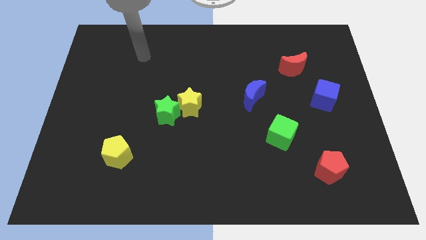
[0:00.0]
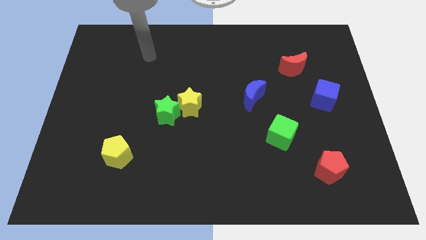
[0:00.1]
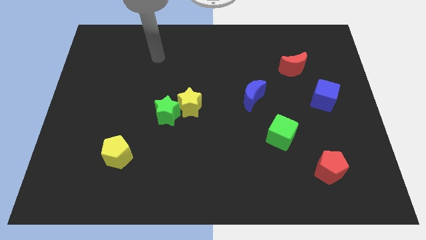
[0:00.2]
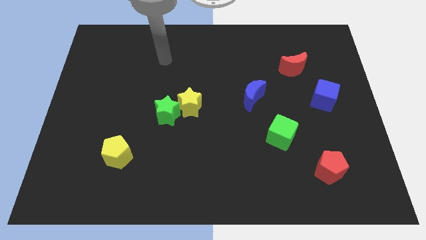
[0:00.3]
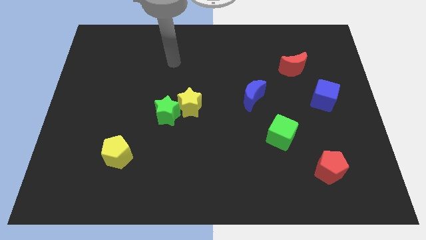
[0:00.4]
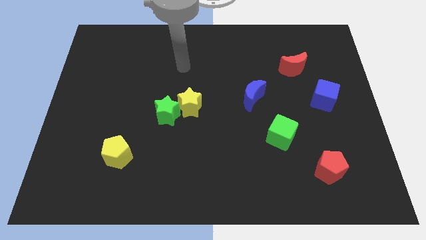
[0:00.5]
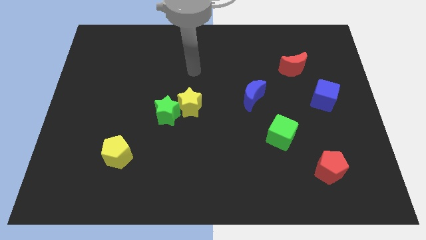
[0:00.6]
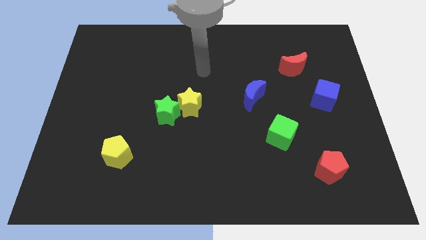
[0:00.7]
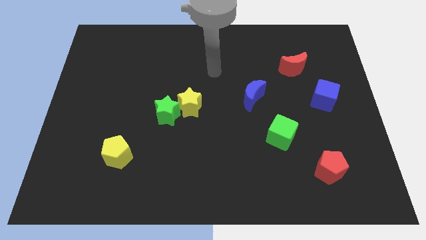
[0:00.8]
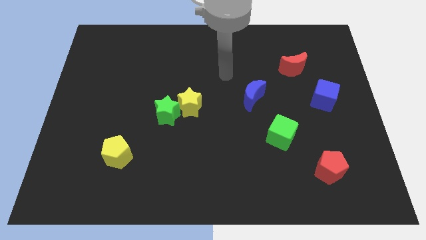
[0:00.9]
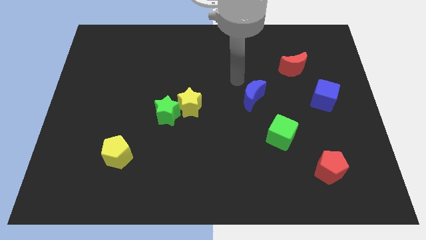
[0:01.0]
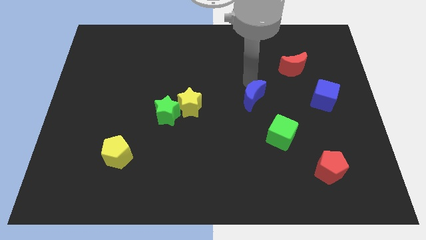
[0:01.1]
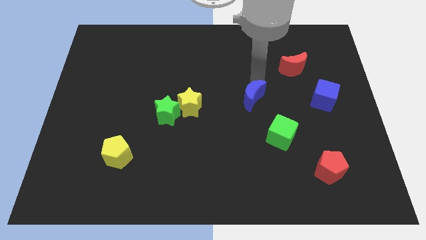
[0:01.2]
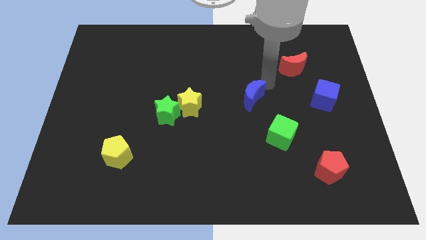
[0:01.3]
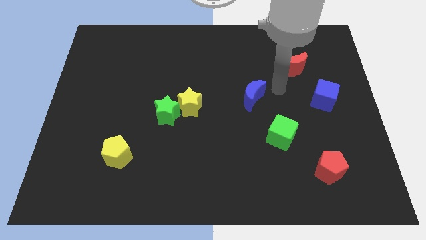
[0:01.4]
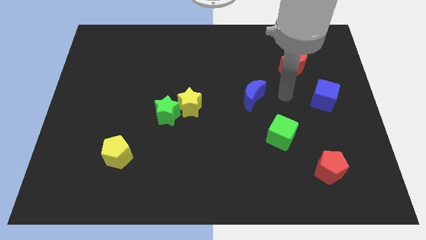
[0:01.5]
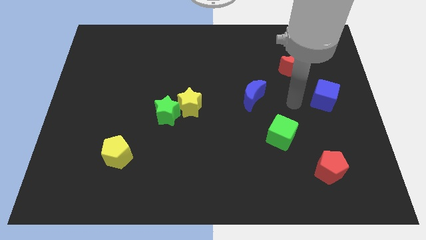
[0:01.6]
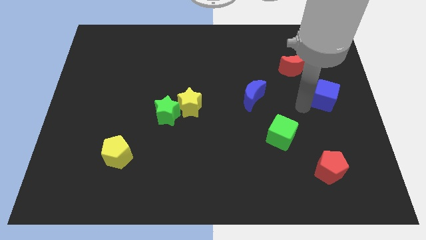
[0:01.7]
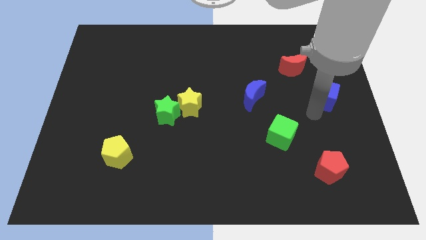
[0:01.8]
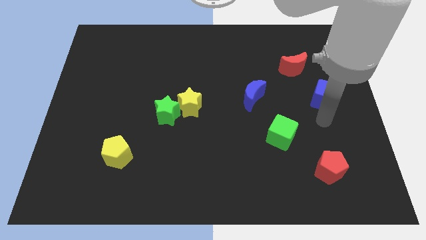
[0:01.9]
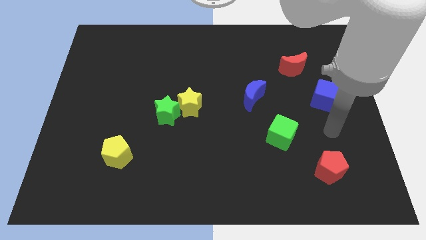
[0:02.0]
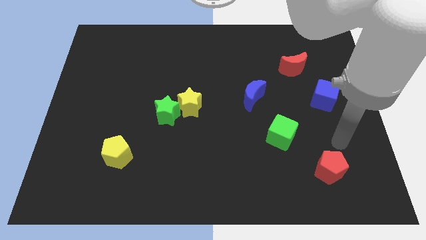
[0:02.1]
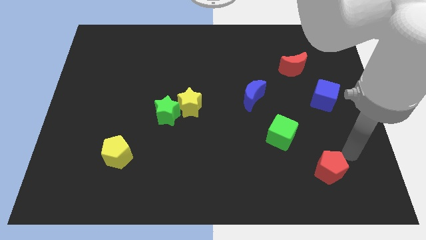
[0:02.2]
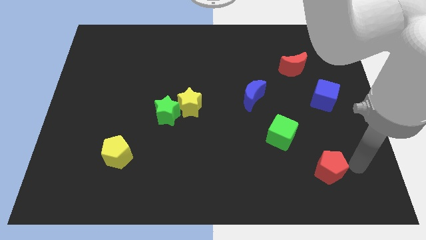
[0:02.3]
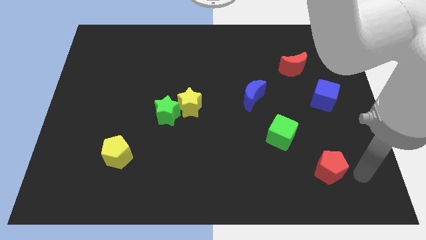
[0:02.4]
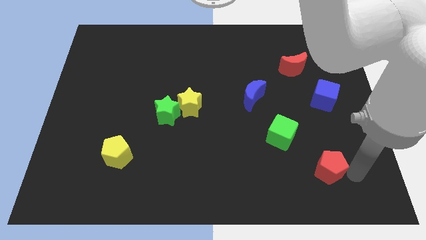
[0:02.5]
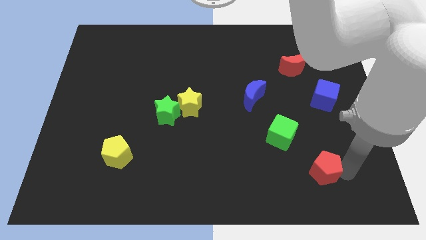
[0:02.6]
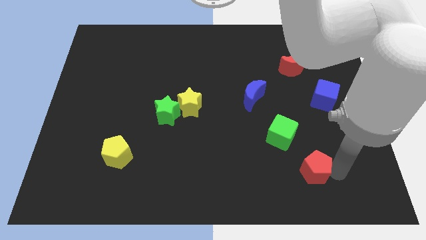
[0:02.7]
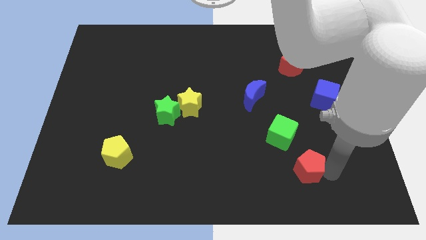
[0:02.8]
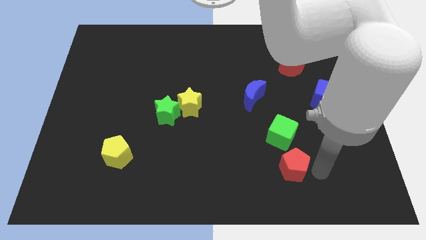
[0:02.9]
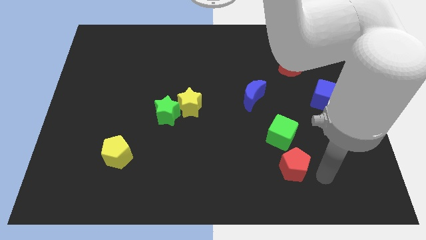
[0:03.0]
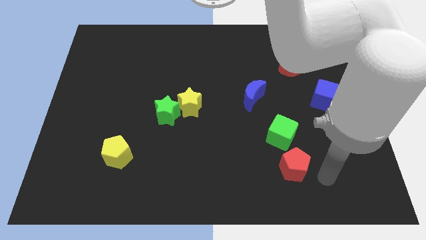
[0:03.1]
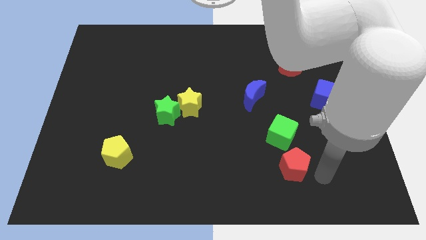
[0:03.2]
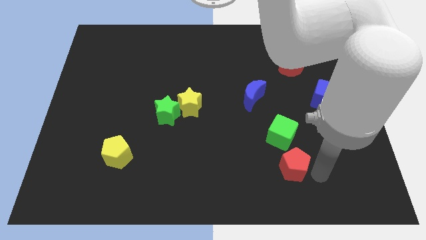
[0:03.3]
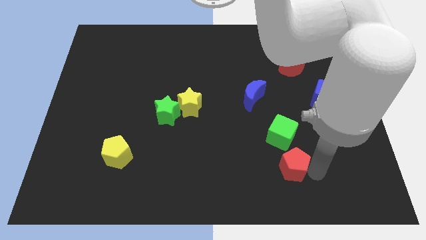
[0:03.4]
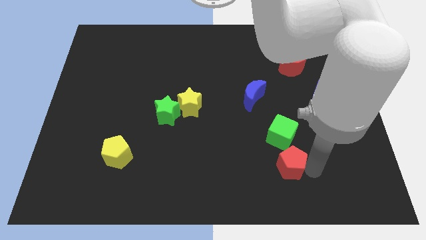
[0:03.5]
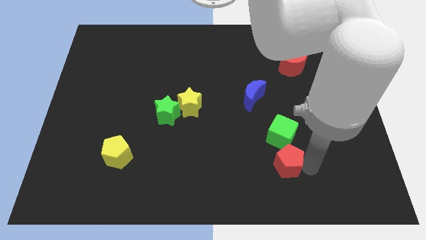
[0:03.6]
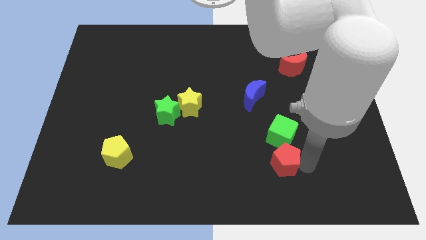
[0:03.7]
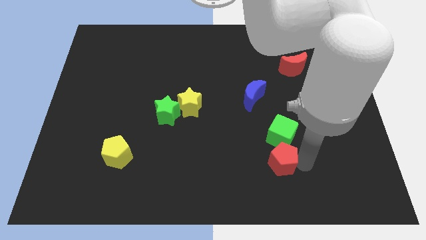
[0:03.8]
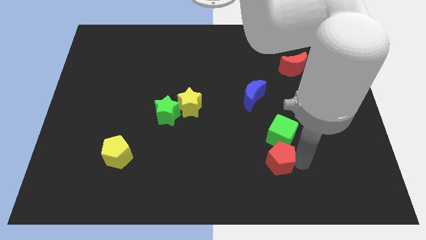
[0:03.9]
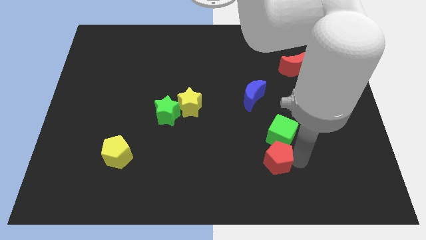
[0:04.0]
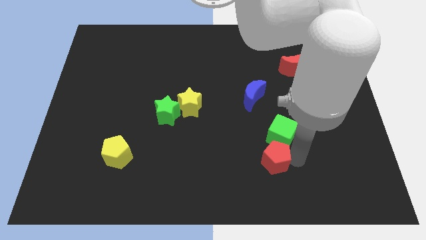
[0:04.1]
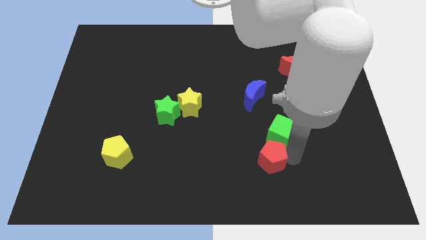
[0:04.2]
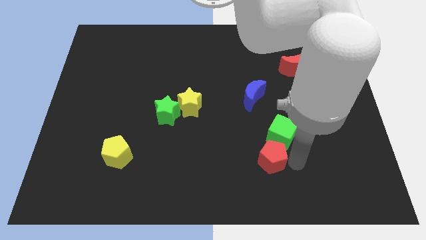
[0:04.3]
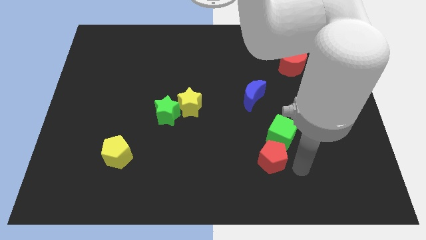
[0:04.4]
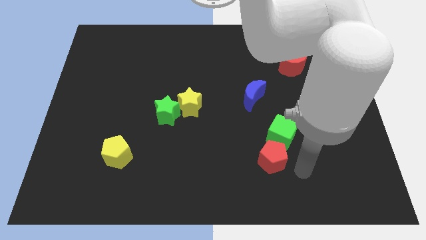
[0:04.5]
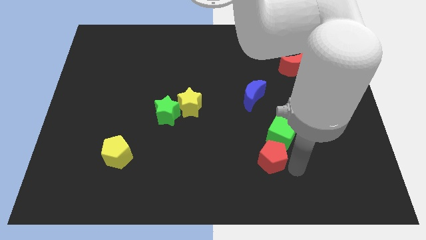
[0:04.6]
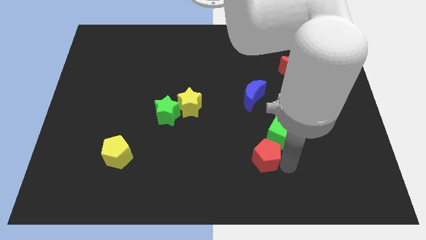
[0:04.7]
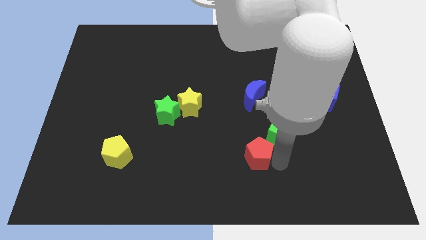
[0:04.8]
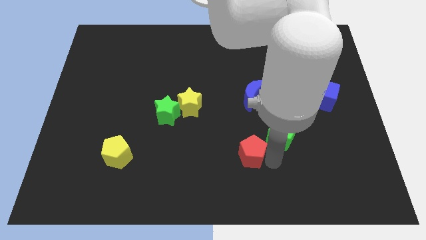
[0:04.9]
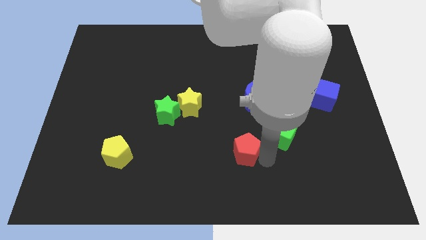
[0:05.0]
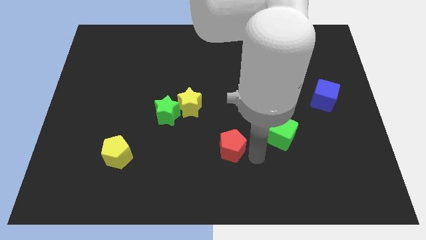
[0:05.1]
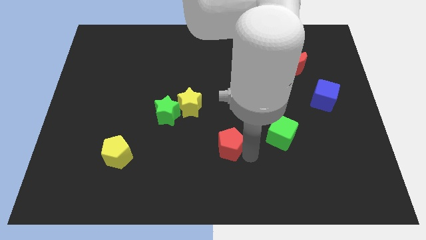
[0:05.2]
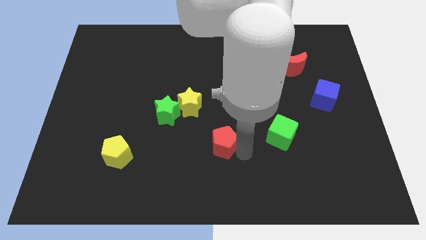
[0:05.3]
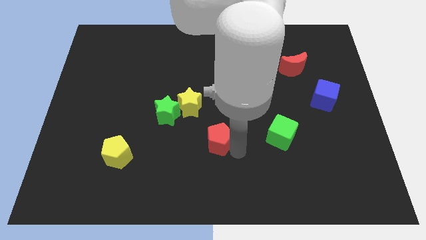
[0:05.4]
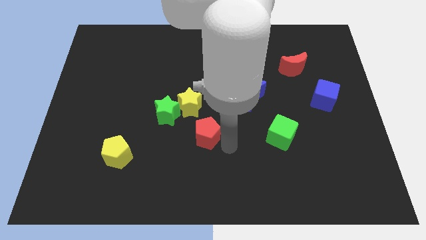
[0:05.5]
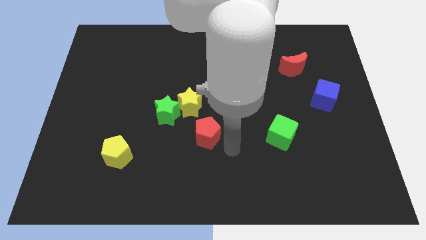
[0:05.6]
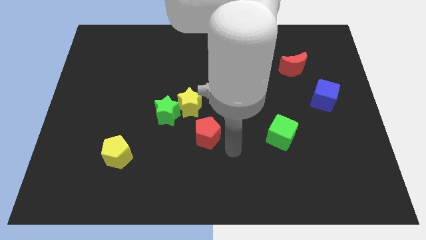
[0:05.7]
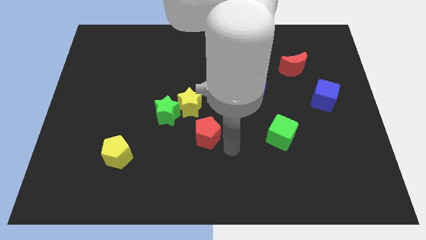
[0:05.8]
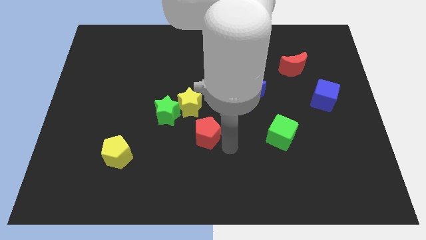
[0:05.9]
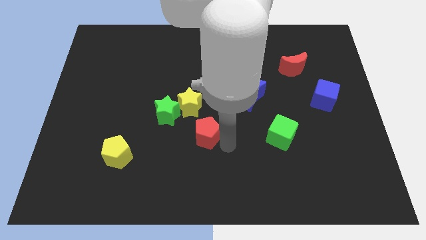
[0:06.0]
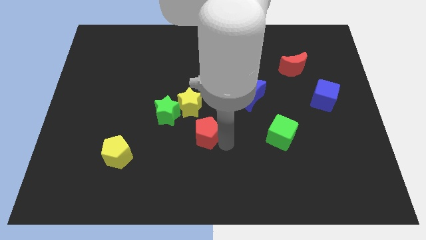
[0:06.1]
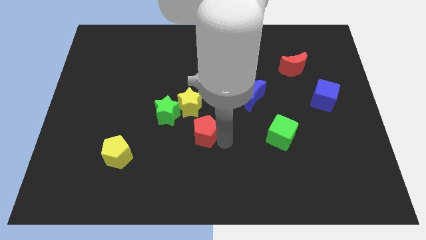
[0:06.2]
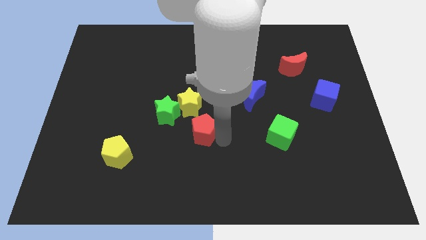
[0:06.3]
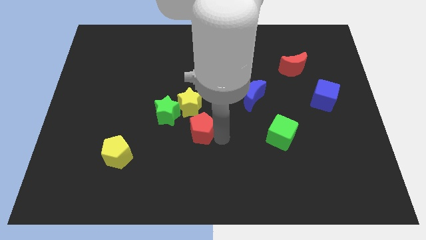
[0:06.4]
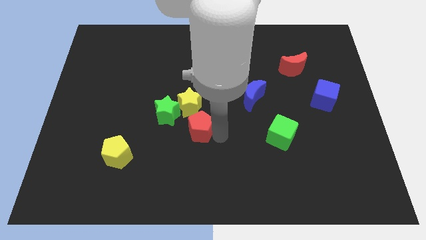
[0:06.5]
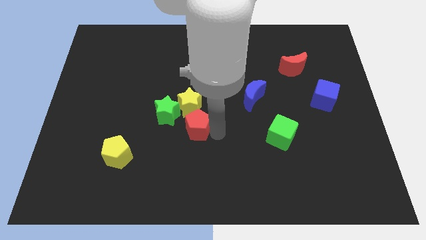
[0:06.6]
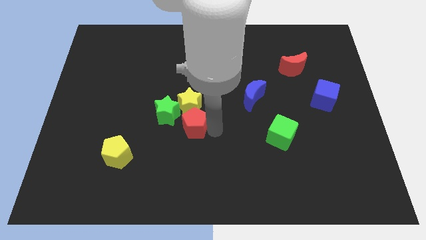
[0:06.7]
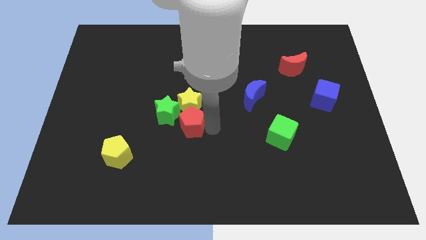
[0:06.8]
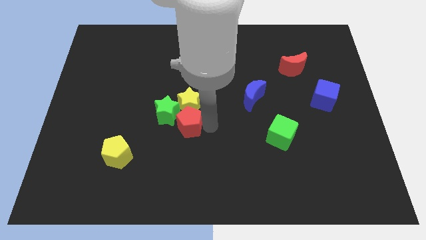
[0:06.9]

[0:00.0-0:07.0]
push the red pentagon next to the green star

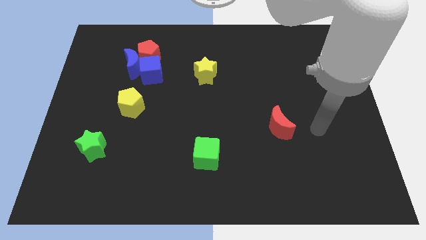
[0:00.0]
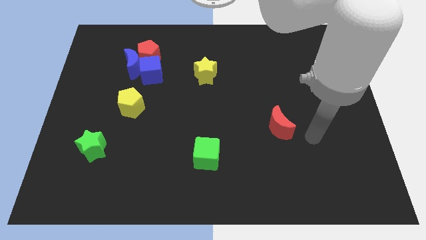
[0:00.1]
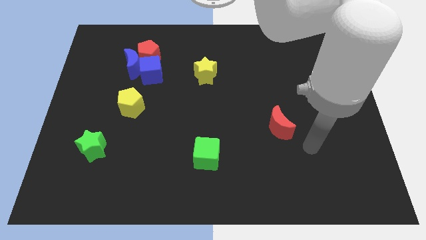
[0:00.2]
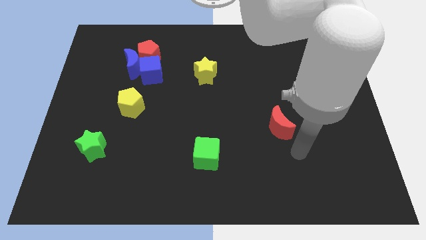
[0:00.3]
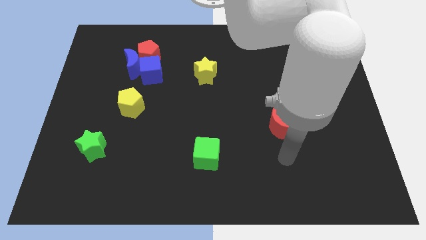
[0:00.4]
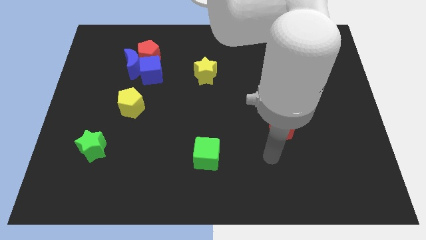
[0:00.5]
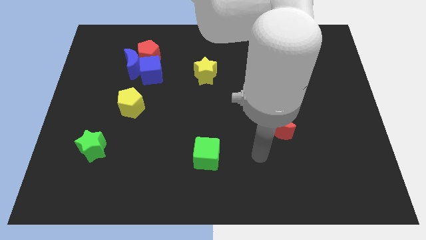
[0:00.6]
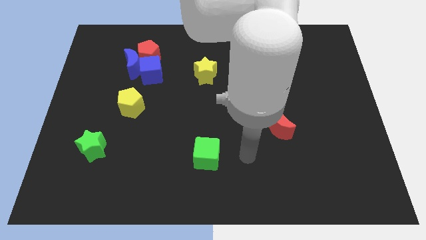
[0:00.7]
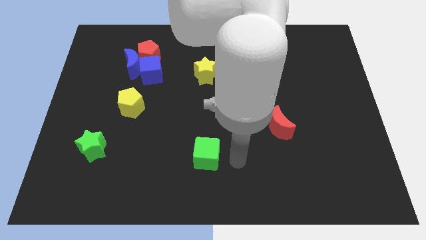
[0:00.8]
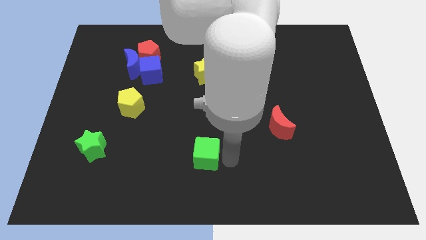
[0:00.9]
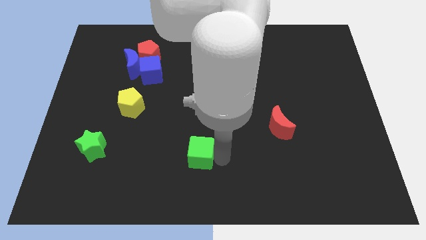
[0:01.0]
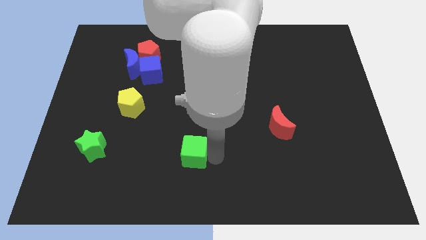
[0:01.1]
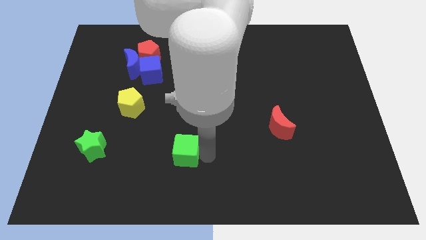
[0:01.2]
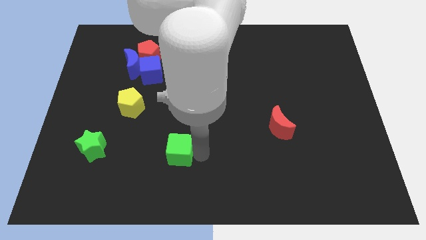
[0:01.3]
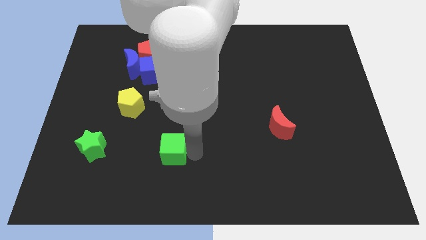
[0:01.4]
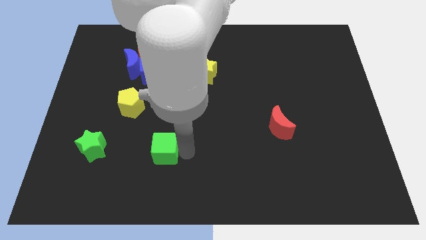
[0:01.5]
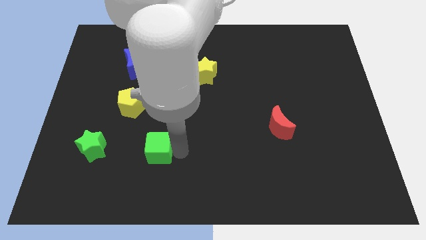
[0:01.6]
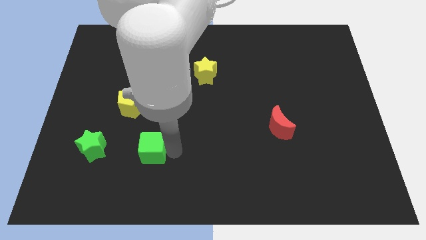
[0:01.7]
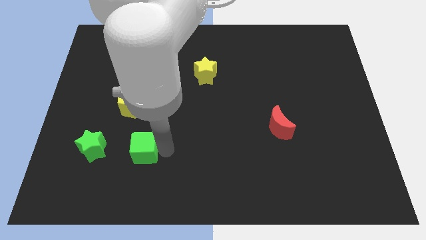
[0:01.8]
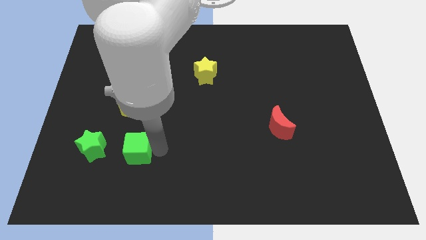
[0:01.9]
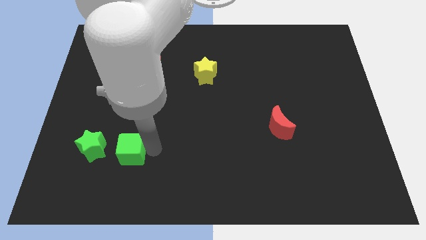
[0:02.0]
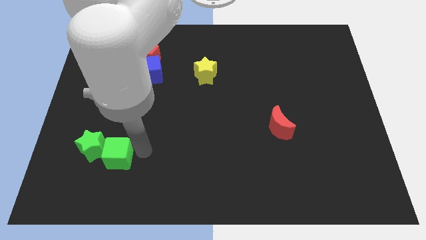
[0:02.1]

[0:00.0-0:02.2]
put the green cube close to the green star
